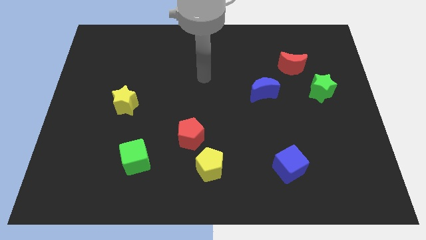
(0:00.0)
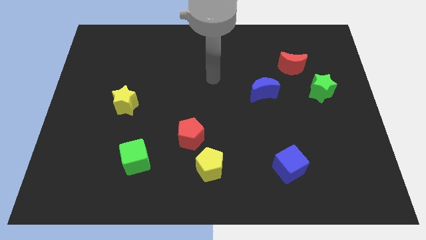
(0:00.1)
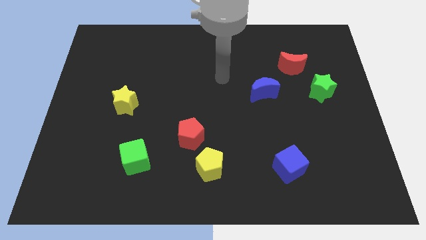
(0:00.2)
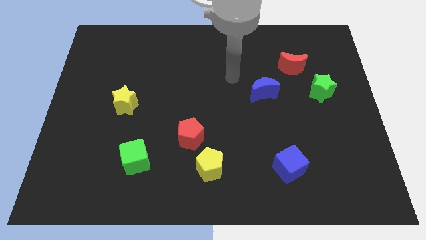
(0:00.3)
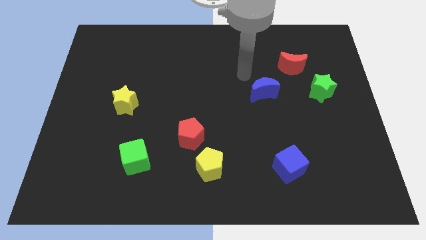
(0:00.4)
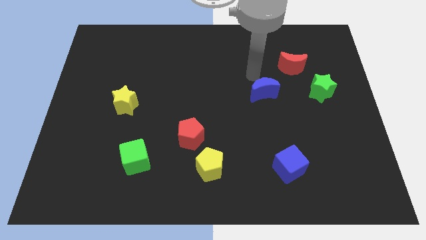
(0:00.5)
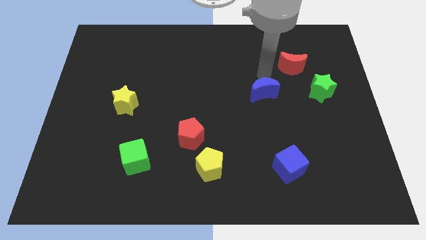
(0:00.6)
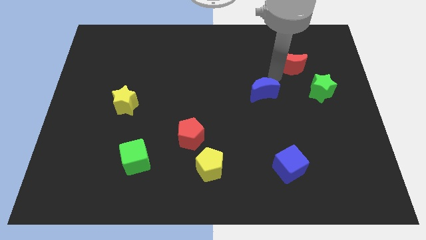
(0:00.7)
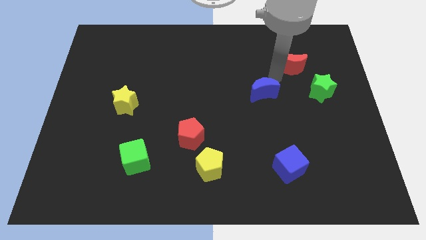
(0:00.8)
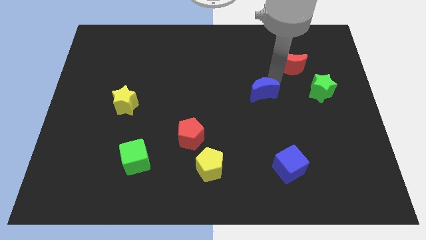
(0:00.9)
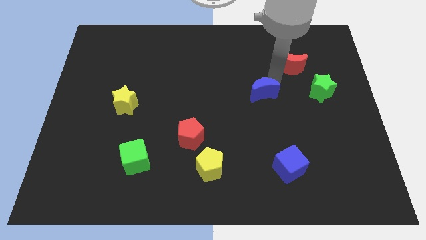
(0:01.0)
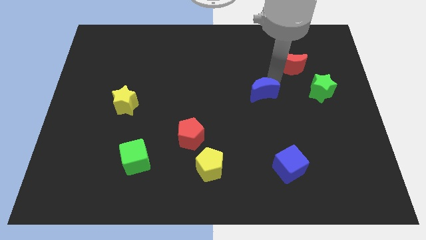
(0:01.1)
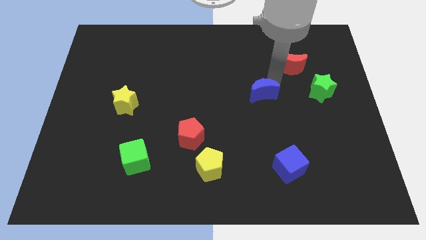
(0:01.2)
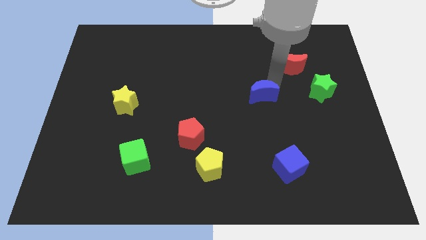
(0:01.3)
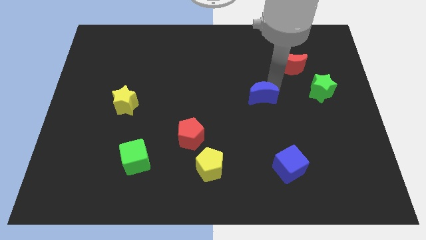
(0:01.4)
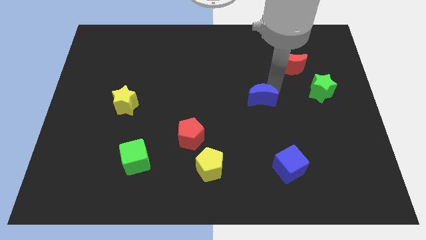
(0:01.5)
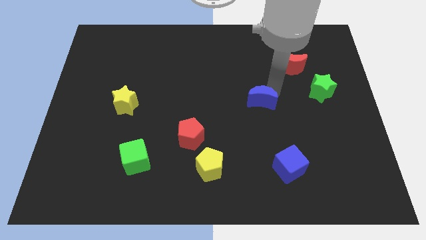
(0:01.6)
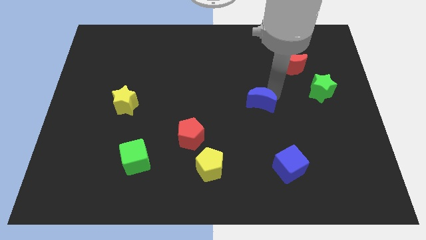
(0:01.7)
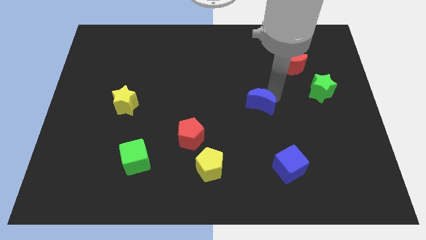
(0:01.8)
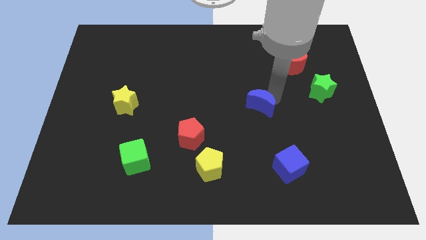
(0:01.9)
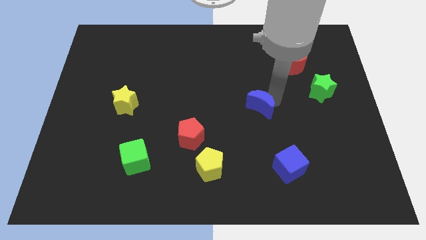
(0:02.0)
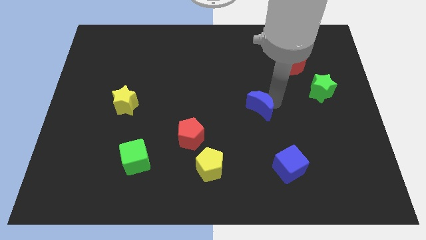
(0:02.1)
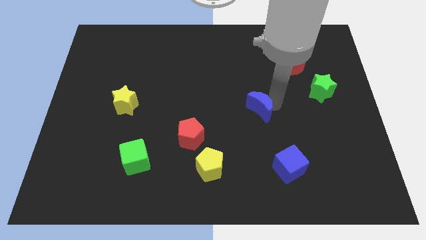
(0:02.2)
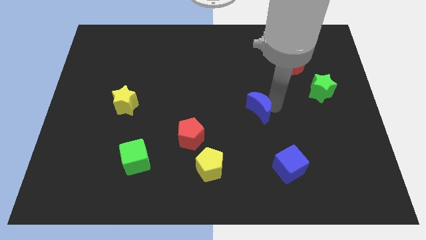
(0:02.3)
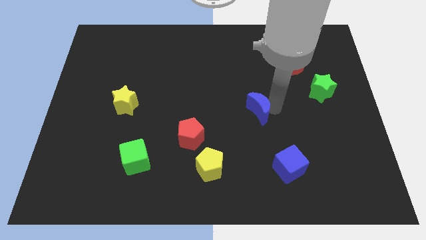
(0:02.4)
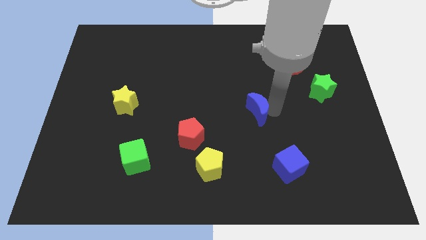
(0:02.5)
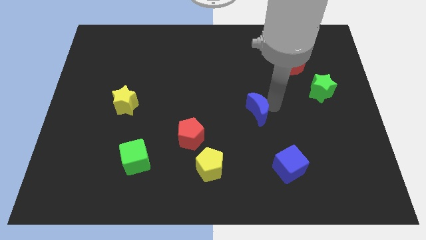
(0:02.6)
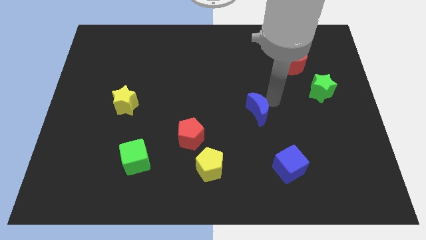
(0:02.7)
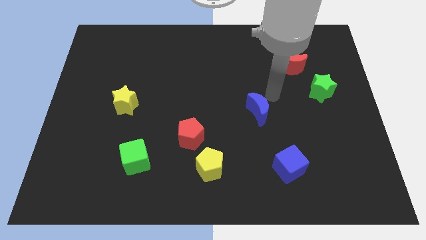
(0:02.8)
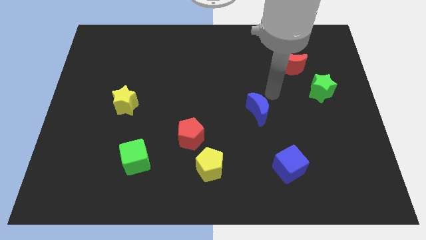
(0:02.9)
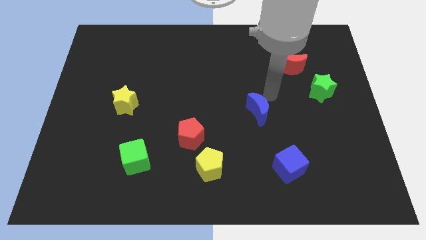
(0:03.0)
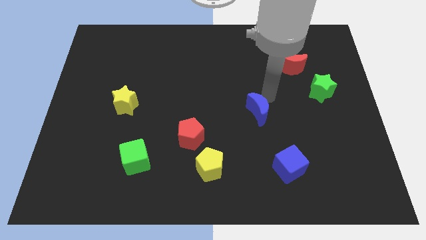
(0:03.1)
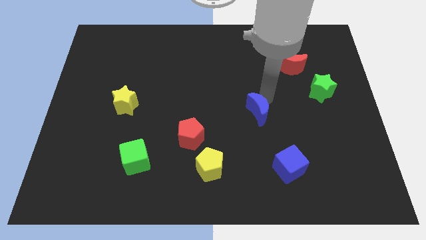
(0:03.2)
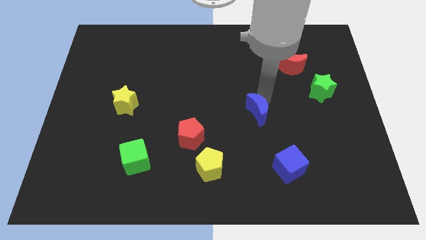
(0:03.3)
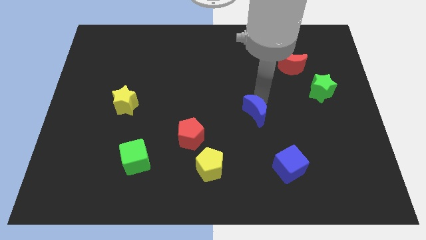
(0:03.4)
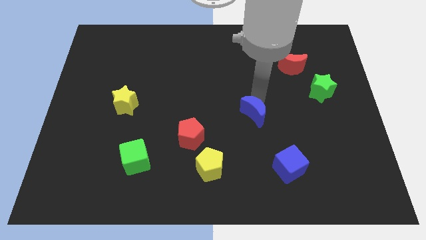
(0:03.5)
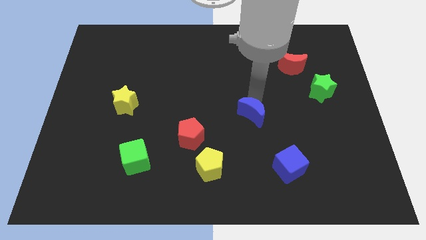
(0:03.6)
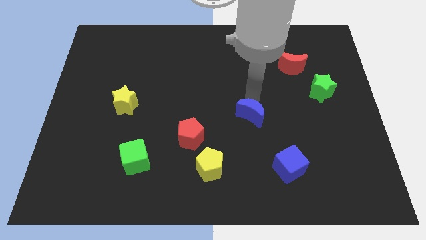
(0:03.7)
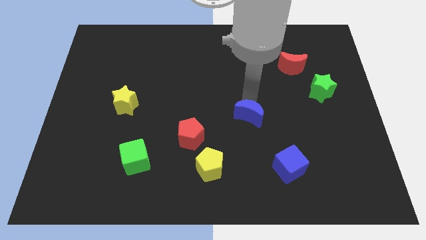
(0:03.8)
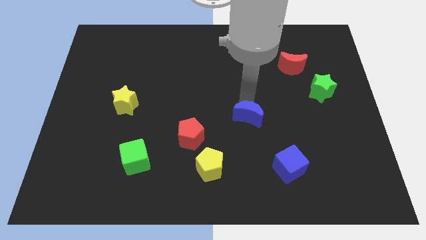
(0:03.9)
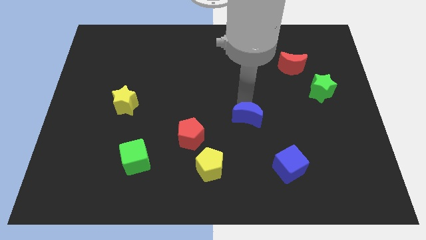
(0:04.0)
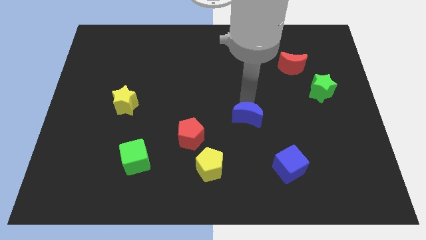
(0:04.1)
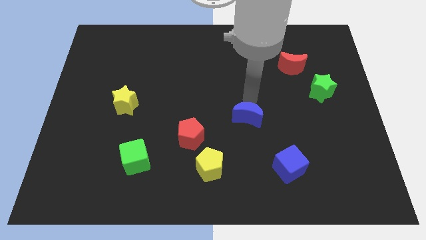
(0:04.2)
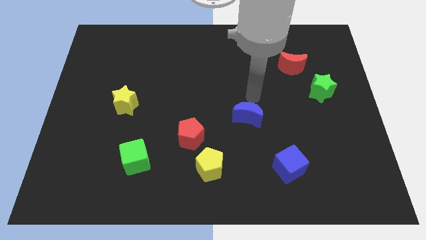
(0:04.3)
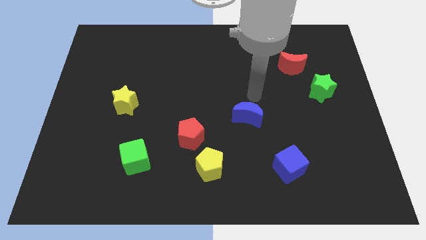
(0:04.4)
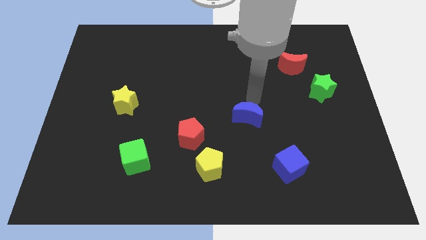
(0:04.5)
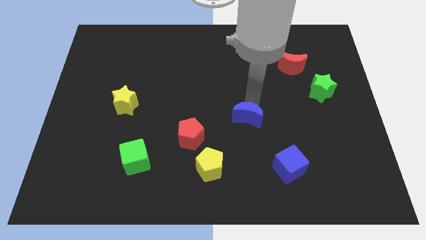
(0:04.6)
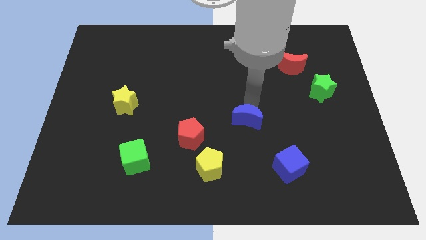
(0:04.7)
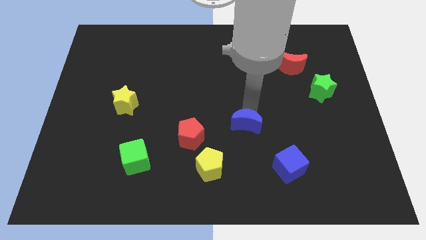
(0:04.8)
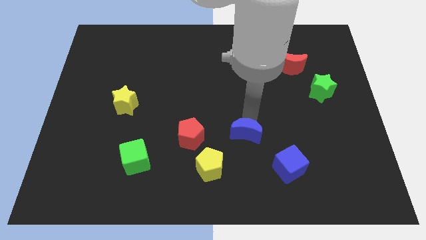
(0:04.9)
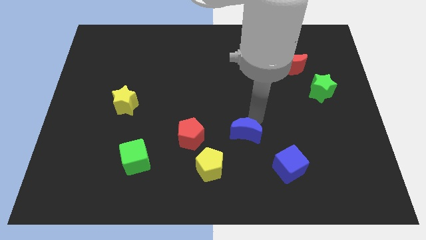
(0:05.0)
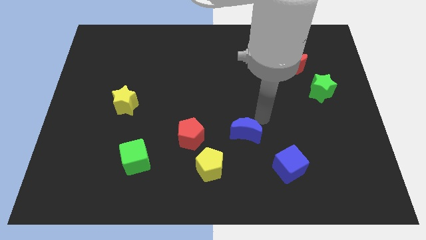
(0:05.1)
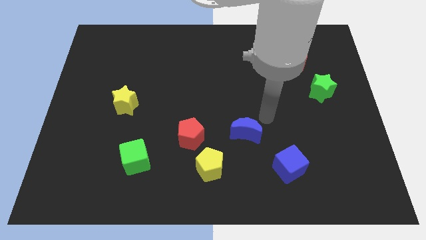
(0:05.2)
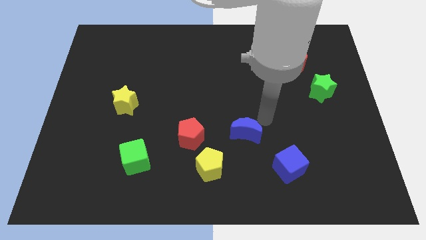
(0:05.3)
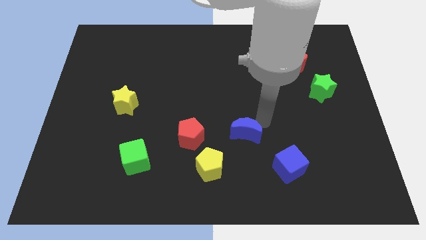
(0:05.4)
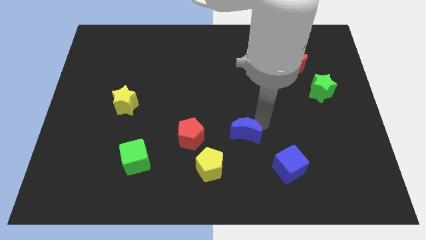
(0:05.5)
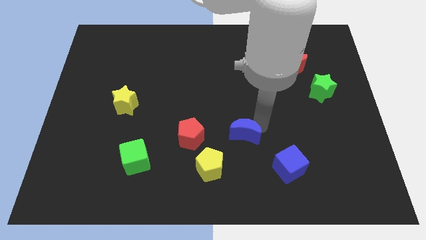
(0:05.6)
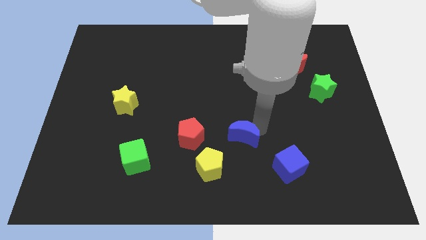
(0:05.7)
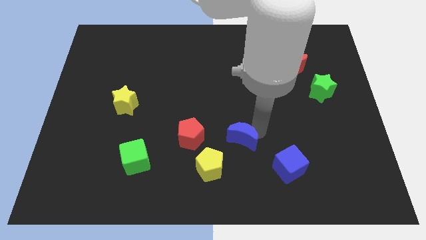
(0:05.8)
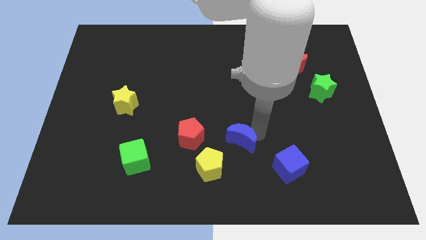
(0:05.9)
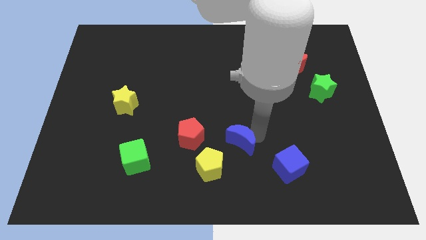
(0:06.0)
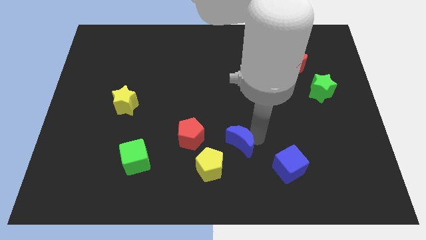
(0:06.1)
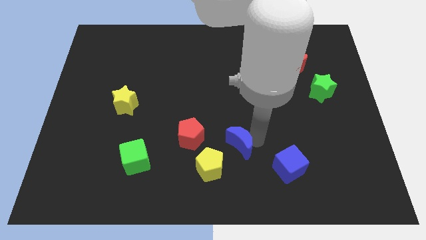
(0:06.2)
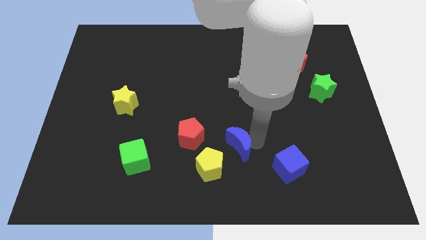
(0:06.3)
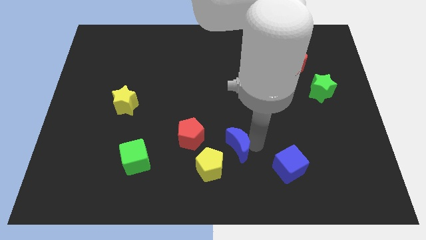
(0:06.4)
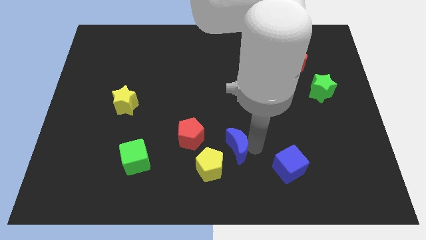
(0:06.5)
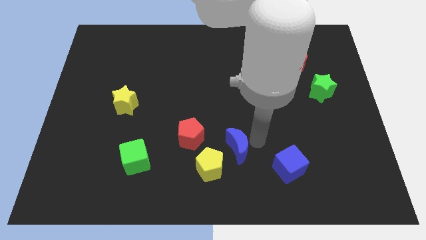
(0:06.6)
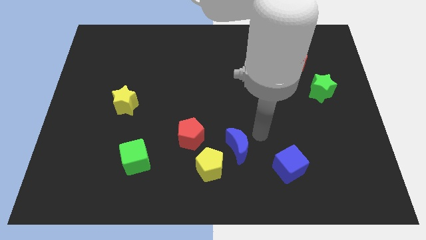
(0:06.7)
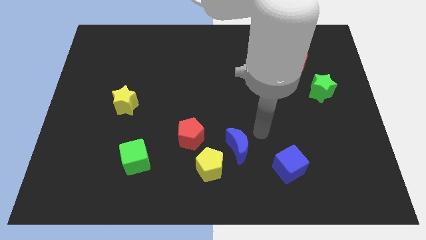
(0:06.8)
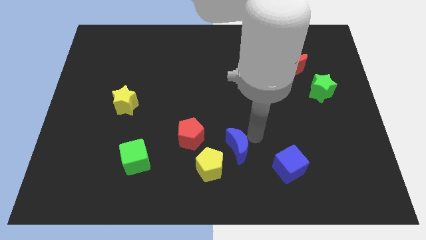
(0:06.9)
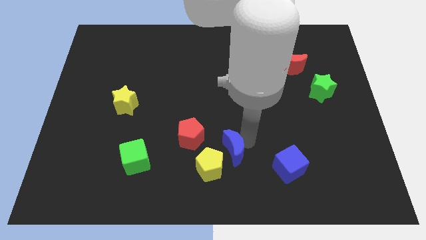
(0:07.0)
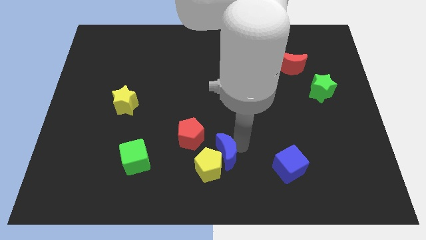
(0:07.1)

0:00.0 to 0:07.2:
move the blue moon next to the yellow pentagon

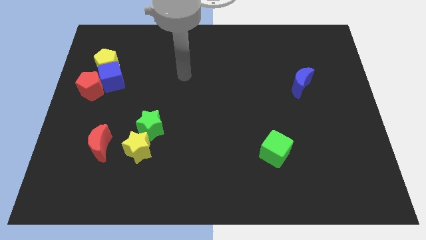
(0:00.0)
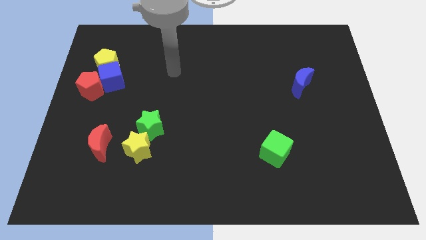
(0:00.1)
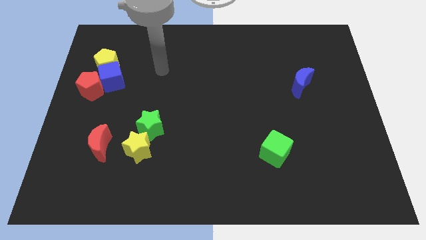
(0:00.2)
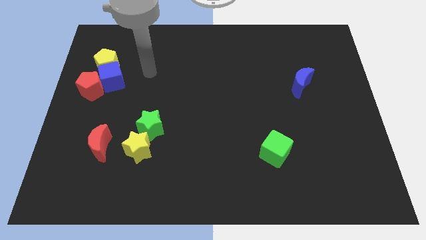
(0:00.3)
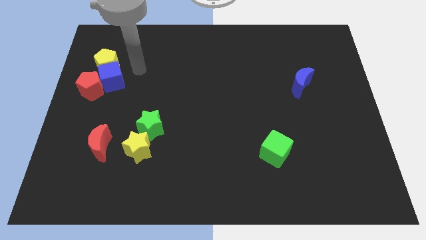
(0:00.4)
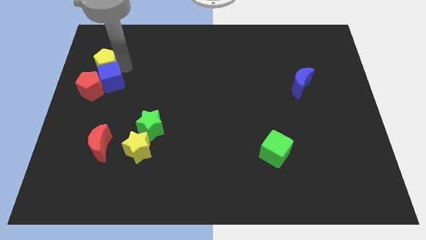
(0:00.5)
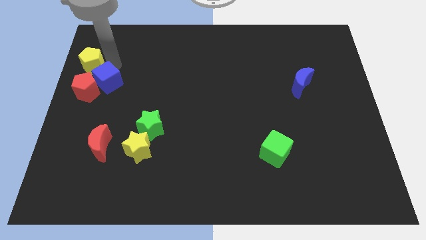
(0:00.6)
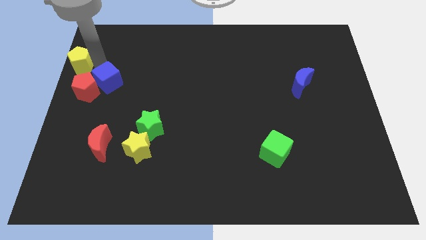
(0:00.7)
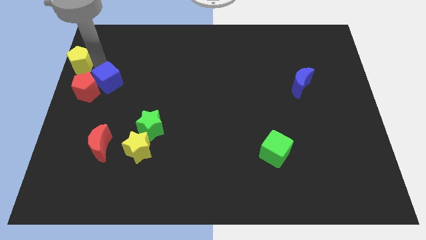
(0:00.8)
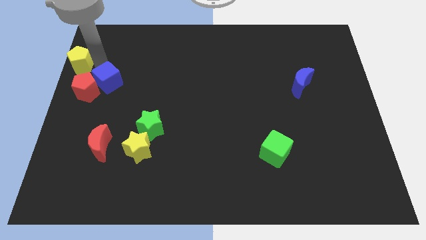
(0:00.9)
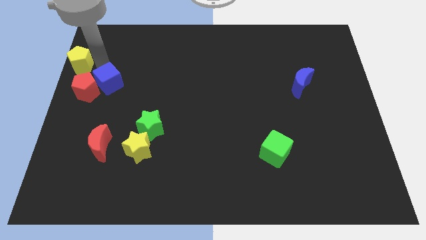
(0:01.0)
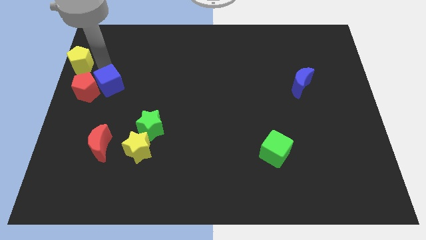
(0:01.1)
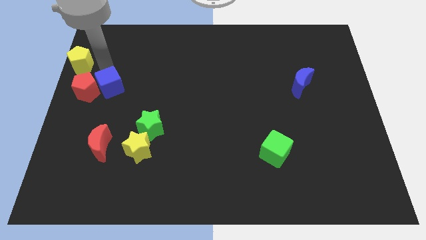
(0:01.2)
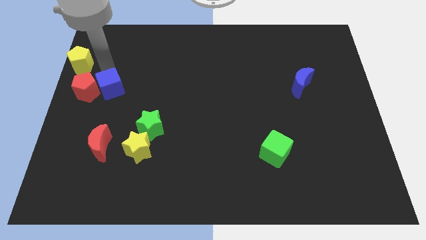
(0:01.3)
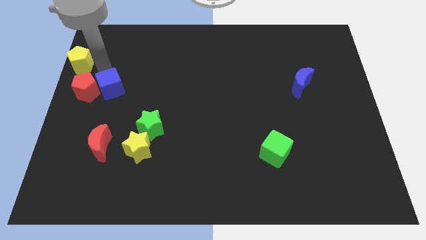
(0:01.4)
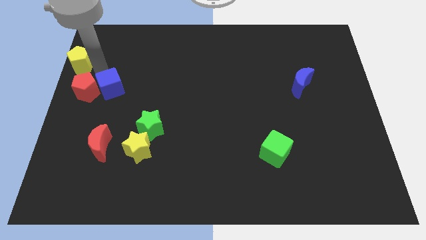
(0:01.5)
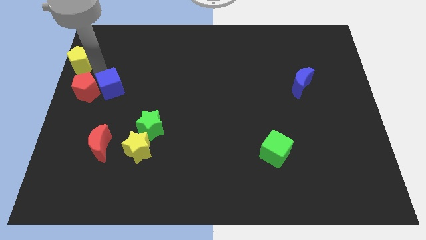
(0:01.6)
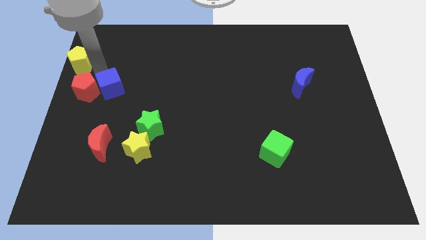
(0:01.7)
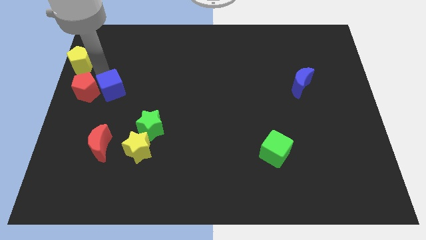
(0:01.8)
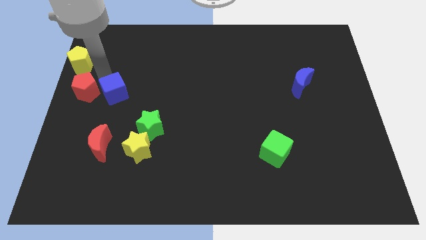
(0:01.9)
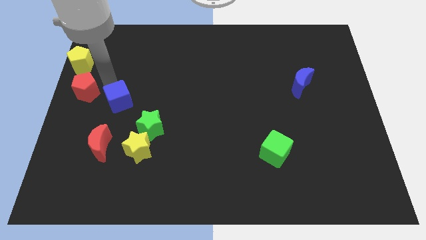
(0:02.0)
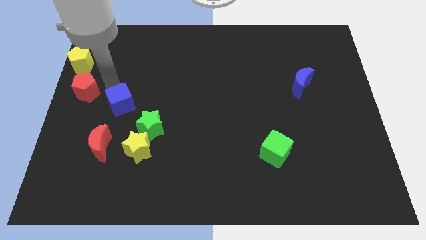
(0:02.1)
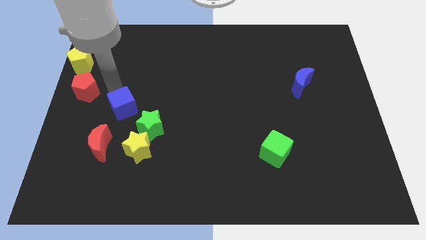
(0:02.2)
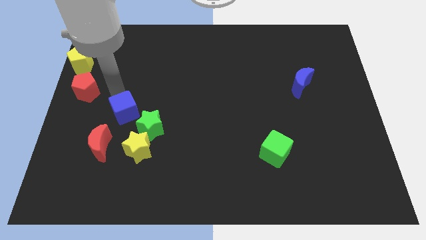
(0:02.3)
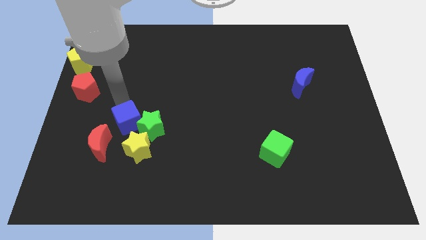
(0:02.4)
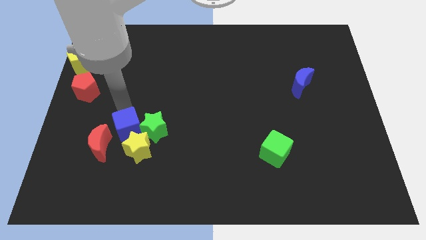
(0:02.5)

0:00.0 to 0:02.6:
move the blue cube to the yellow star
